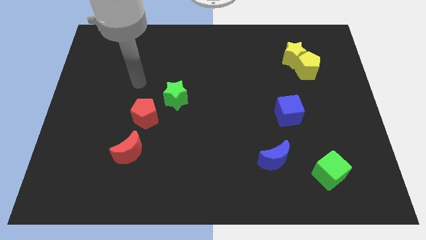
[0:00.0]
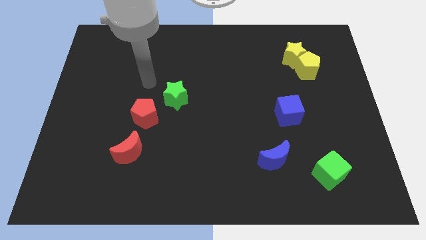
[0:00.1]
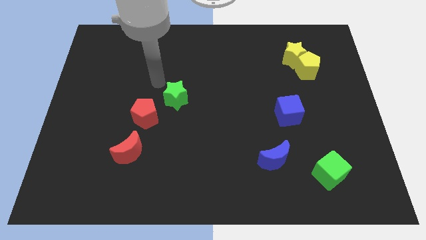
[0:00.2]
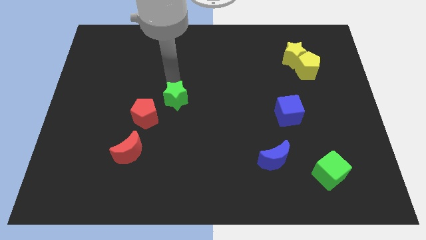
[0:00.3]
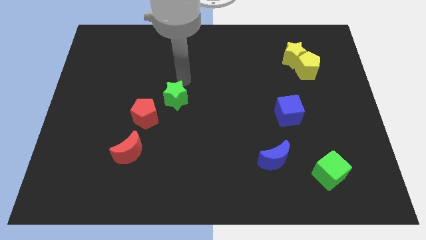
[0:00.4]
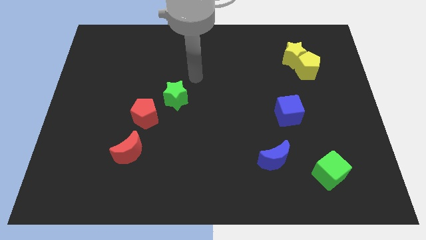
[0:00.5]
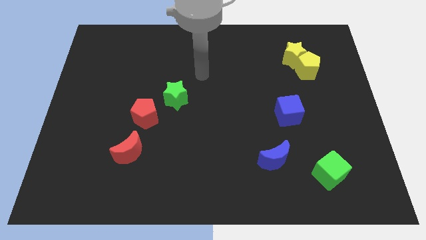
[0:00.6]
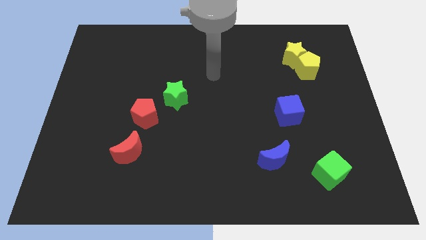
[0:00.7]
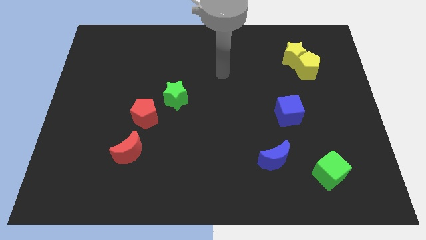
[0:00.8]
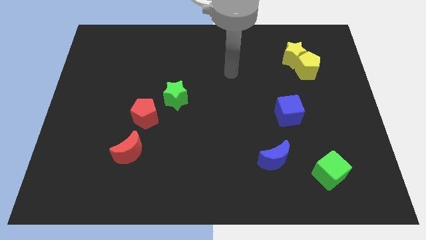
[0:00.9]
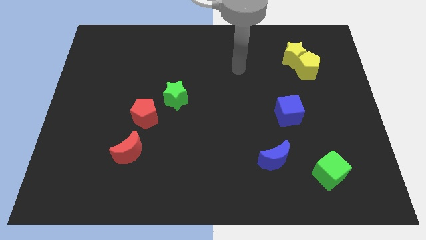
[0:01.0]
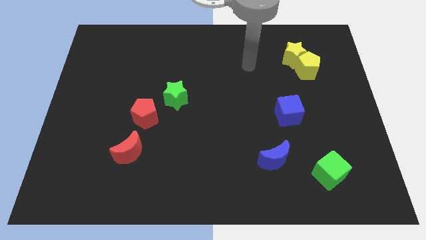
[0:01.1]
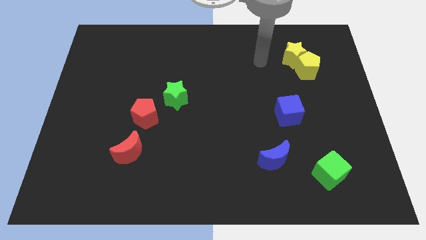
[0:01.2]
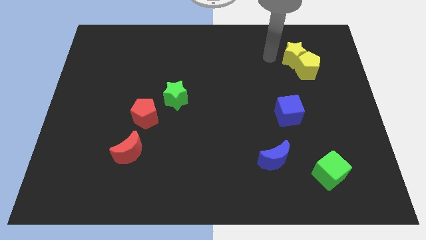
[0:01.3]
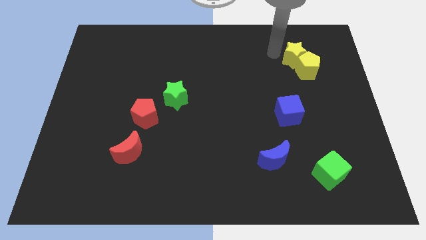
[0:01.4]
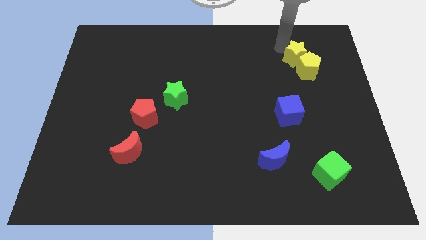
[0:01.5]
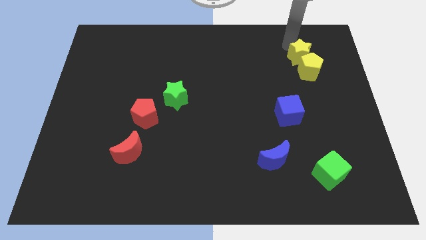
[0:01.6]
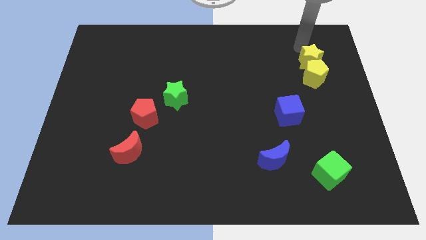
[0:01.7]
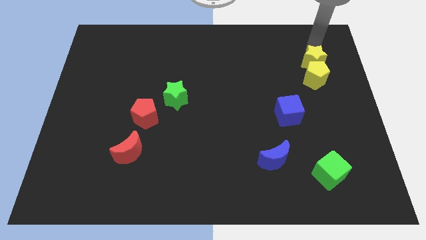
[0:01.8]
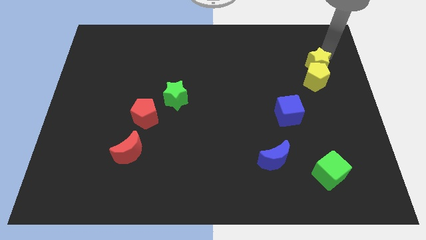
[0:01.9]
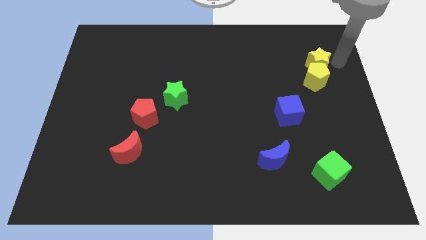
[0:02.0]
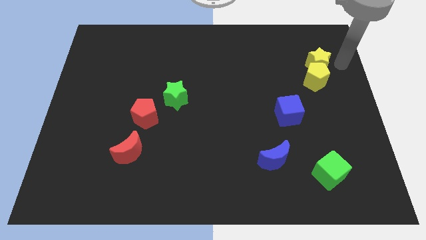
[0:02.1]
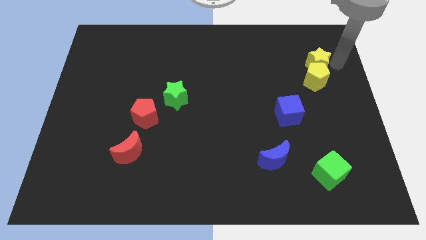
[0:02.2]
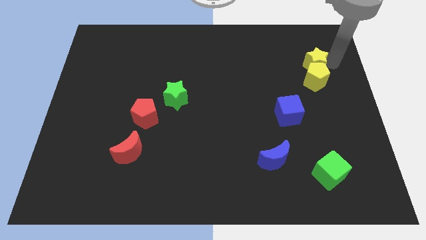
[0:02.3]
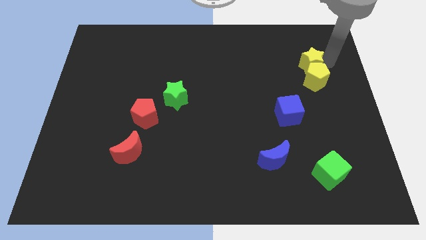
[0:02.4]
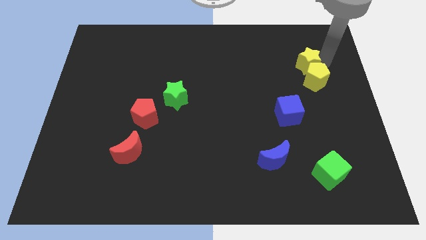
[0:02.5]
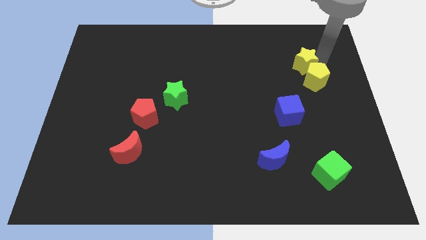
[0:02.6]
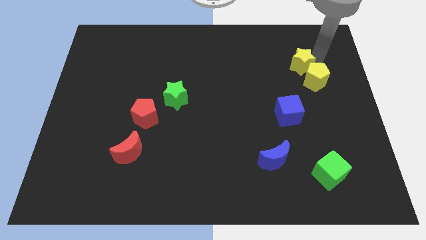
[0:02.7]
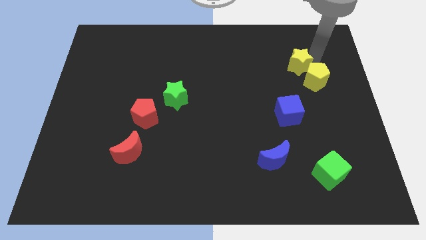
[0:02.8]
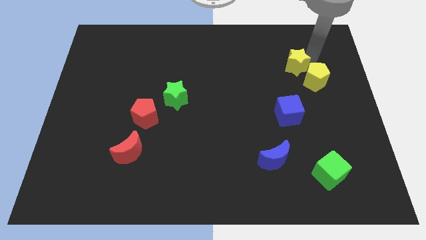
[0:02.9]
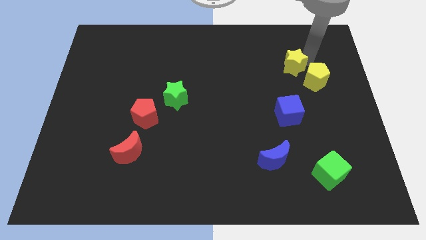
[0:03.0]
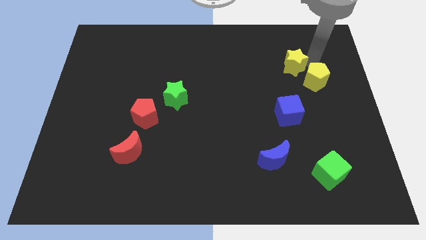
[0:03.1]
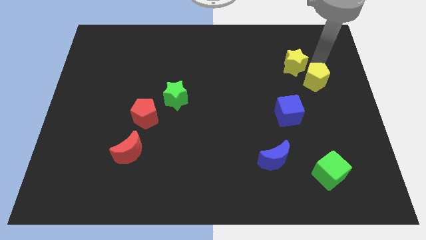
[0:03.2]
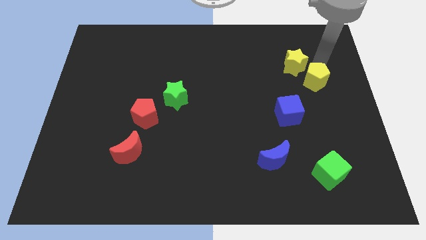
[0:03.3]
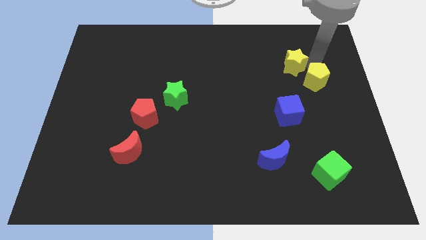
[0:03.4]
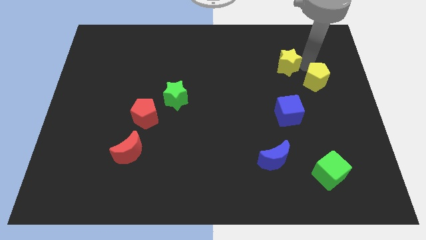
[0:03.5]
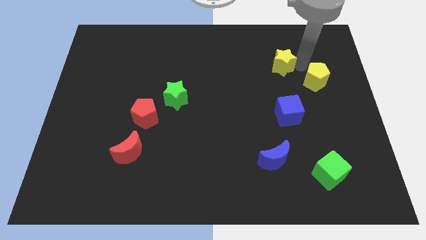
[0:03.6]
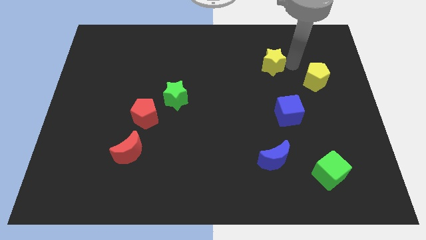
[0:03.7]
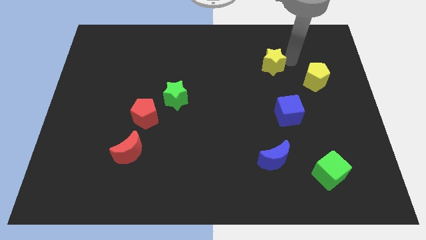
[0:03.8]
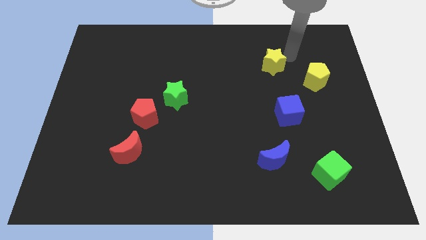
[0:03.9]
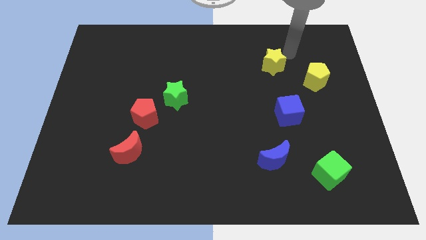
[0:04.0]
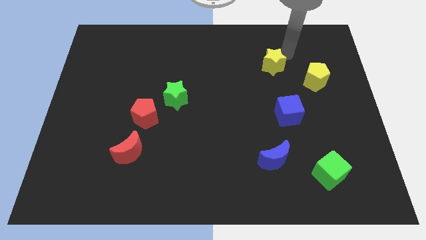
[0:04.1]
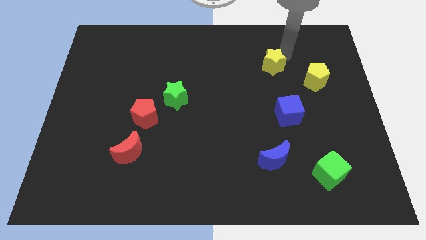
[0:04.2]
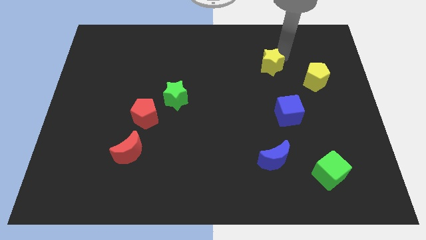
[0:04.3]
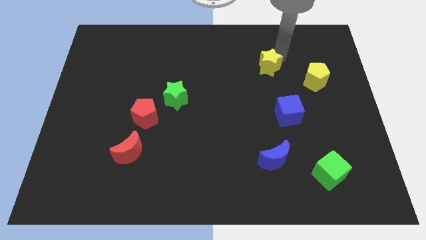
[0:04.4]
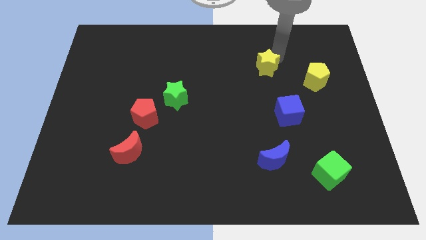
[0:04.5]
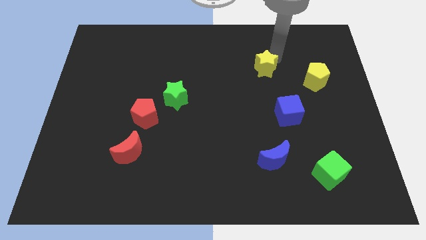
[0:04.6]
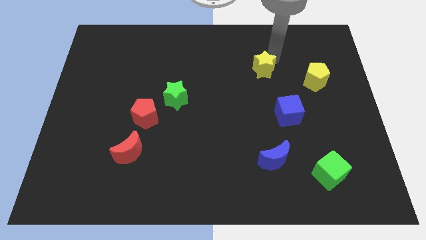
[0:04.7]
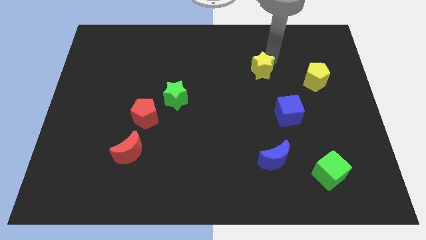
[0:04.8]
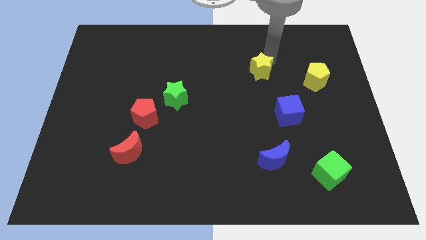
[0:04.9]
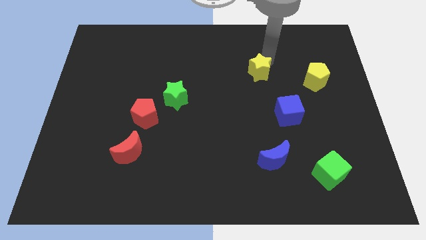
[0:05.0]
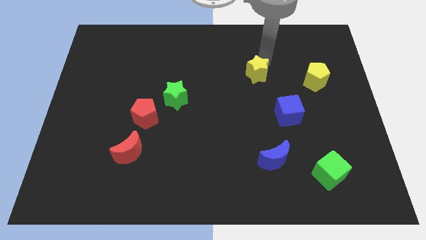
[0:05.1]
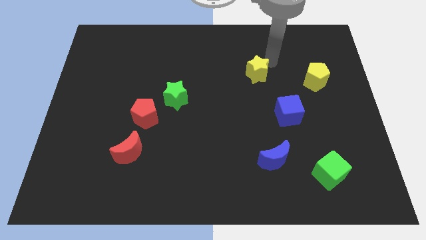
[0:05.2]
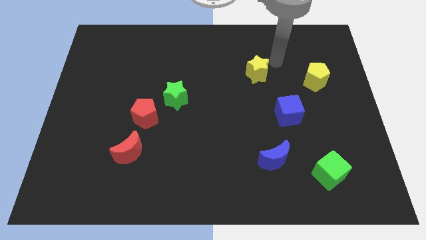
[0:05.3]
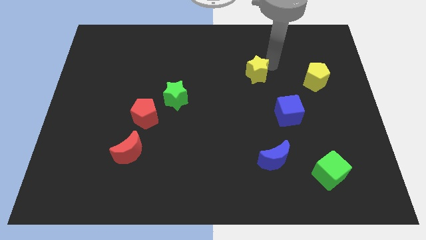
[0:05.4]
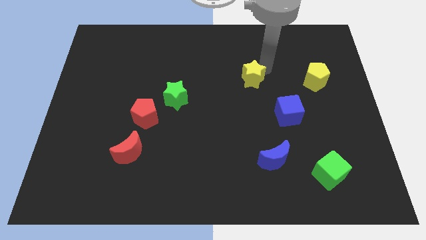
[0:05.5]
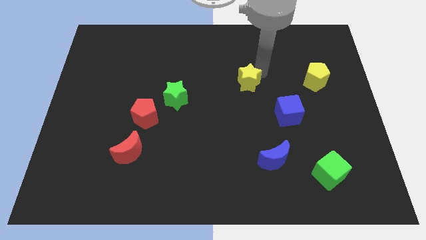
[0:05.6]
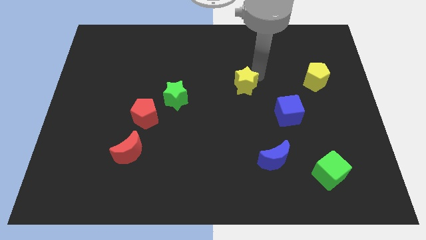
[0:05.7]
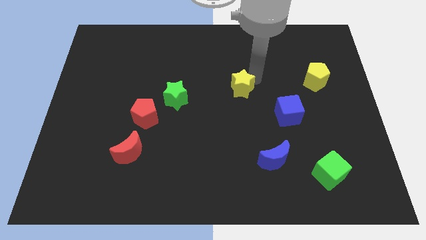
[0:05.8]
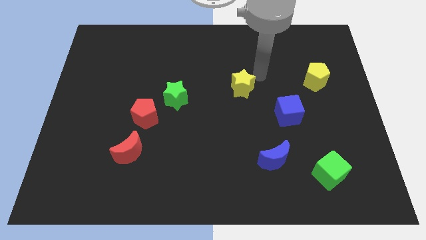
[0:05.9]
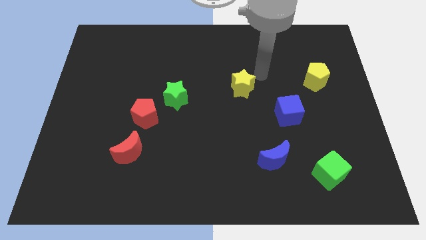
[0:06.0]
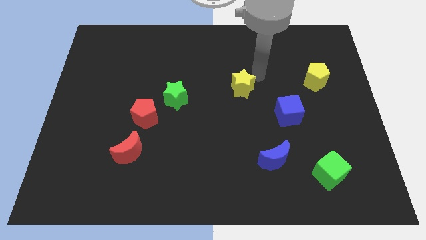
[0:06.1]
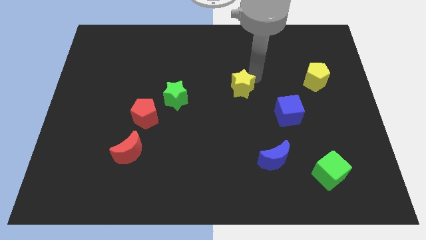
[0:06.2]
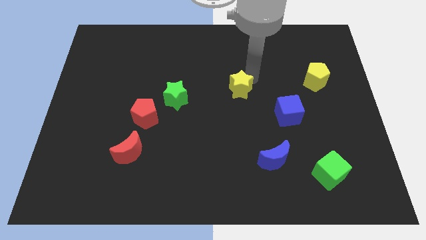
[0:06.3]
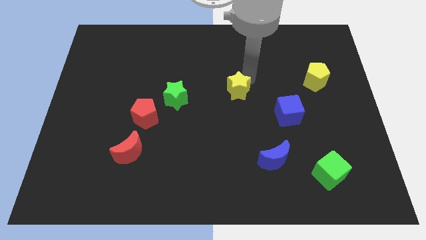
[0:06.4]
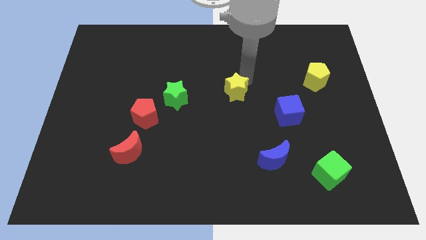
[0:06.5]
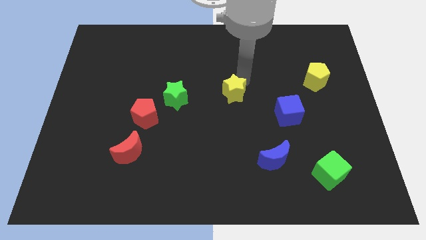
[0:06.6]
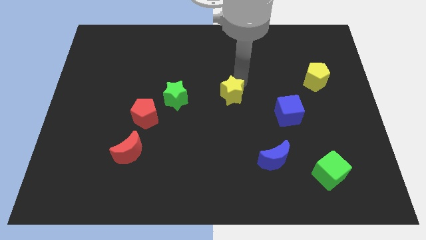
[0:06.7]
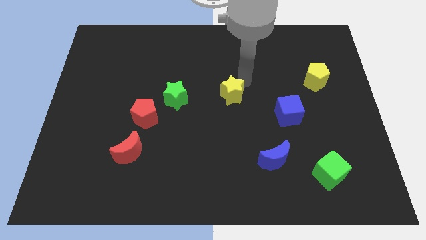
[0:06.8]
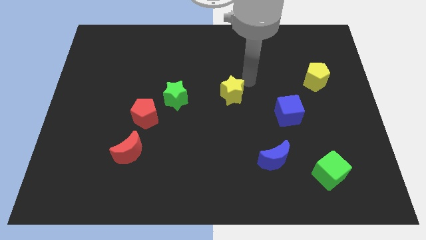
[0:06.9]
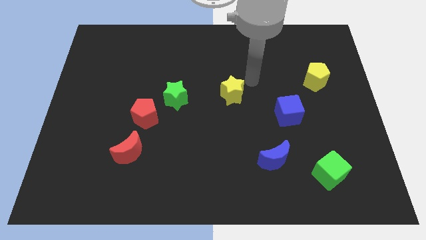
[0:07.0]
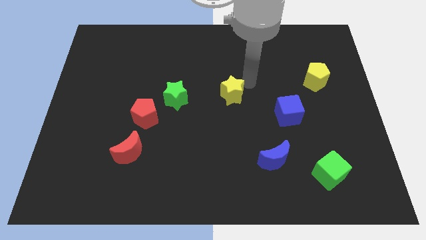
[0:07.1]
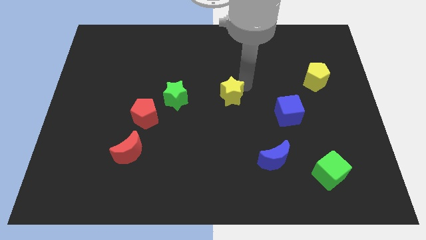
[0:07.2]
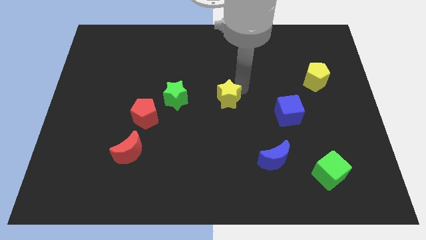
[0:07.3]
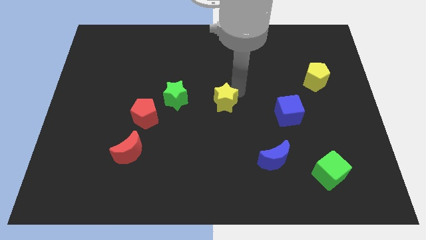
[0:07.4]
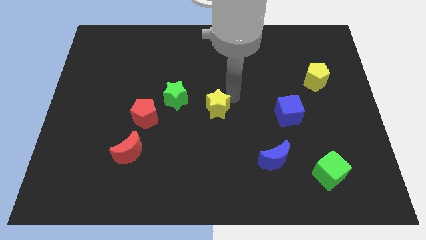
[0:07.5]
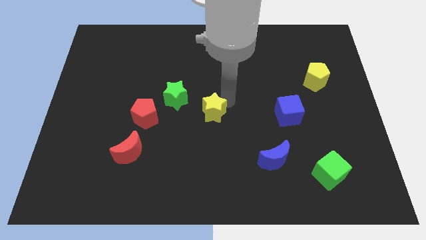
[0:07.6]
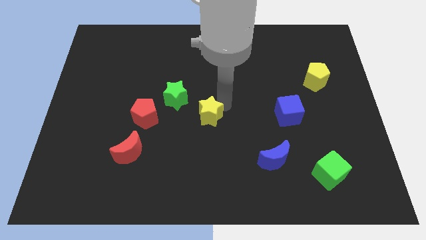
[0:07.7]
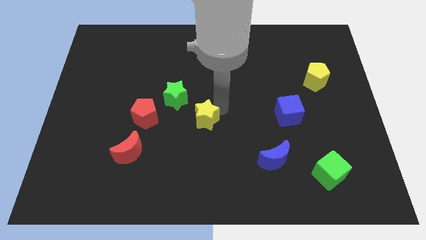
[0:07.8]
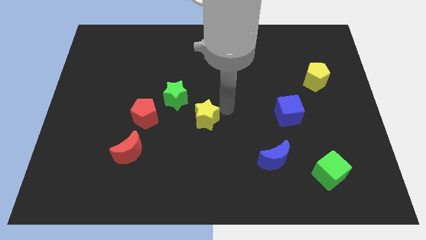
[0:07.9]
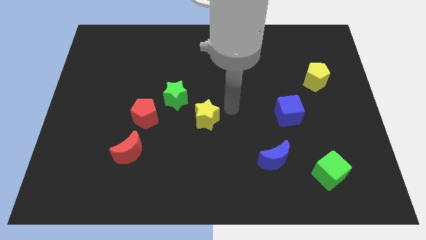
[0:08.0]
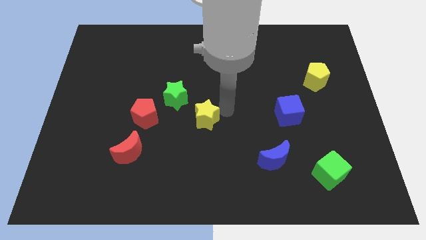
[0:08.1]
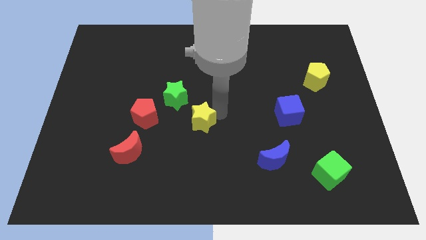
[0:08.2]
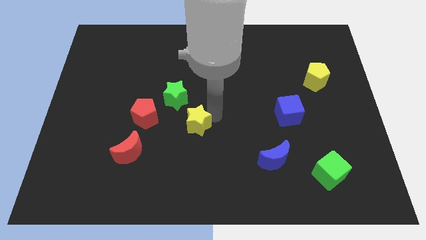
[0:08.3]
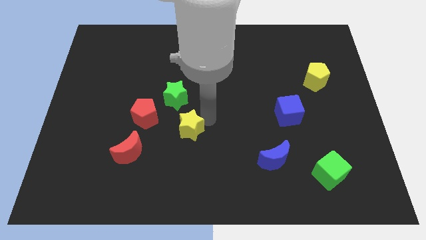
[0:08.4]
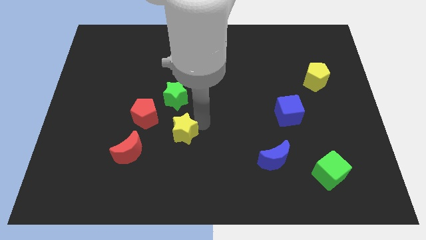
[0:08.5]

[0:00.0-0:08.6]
put the yellow star to the bottom right side of the red pentagon
